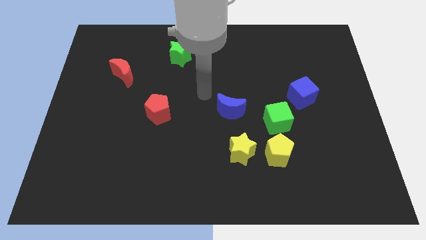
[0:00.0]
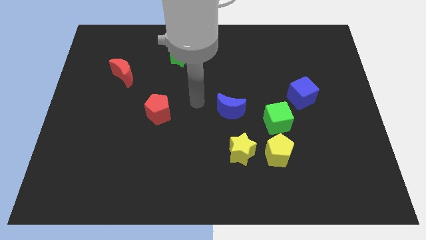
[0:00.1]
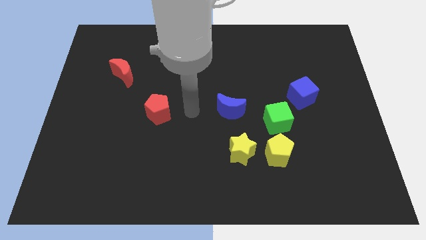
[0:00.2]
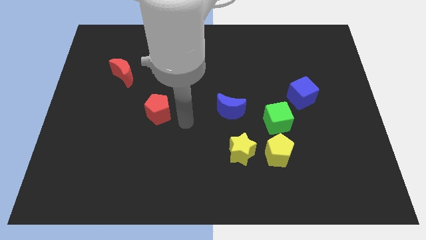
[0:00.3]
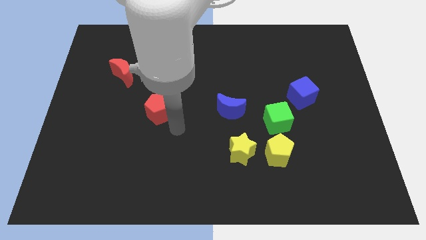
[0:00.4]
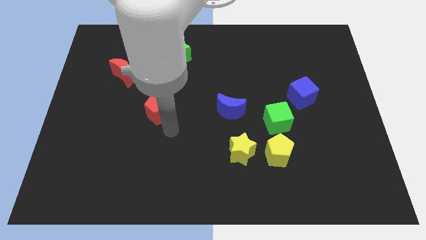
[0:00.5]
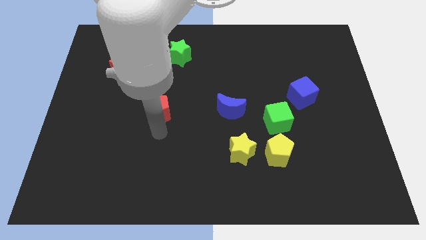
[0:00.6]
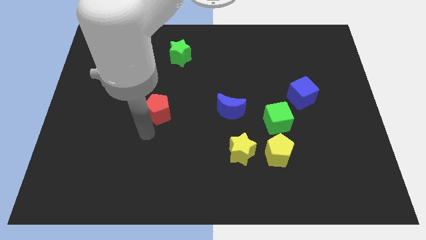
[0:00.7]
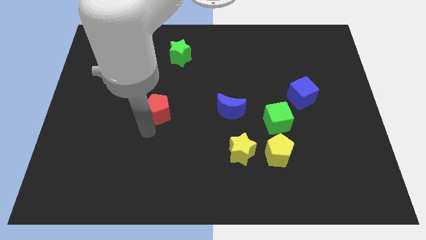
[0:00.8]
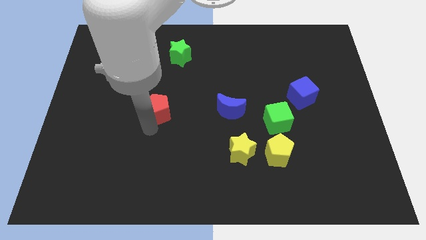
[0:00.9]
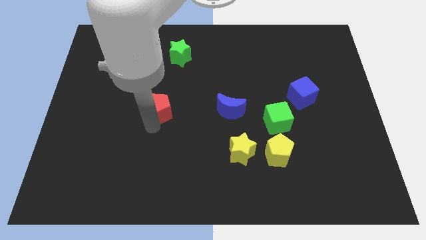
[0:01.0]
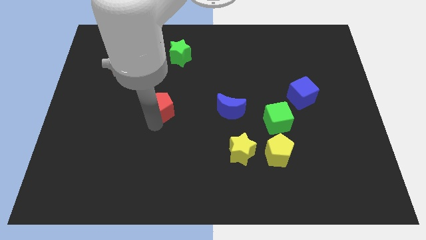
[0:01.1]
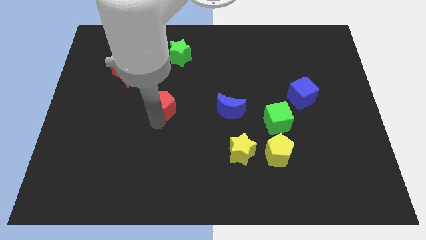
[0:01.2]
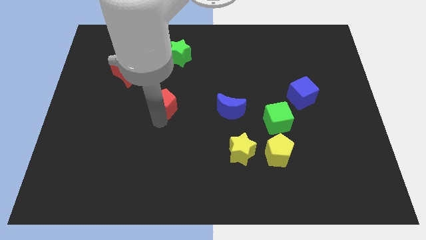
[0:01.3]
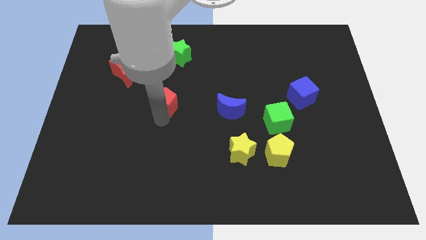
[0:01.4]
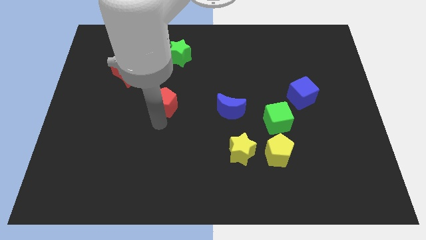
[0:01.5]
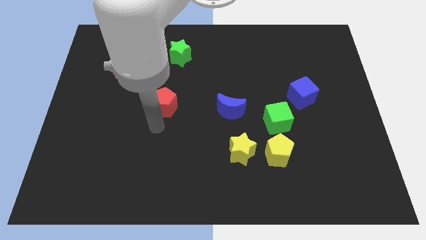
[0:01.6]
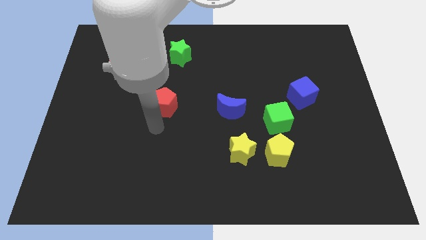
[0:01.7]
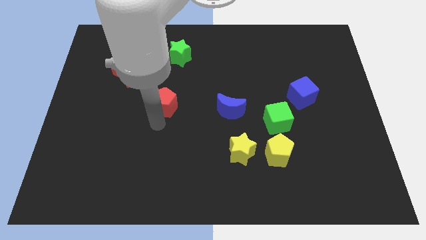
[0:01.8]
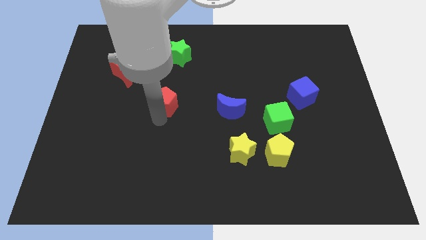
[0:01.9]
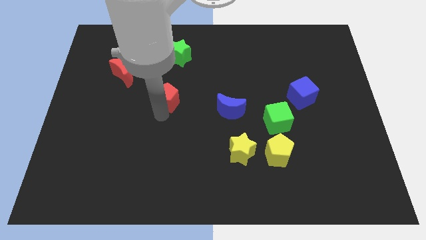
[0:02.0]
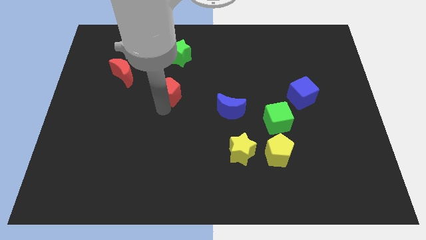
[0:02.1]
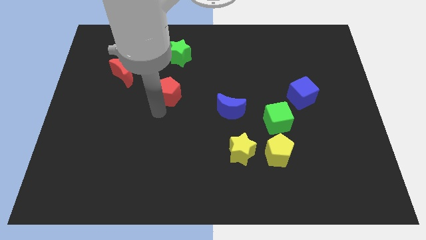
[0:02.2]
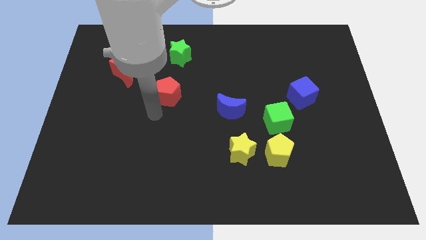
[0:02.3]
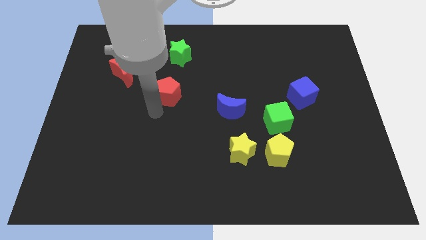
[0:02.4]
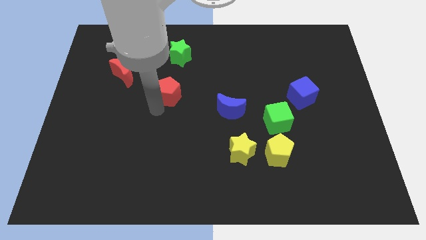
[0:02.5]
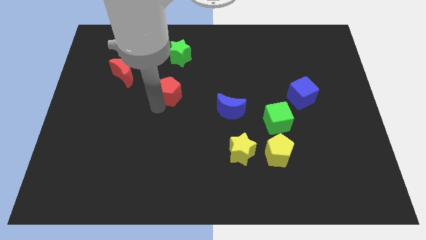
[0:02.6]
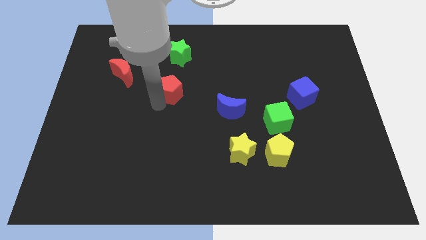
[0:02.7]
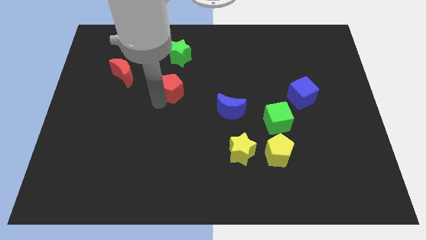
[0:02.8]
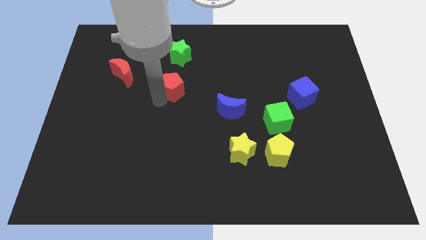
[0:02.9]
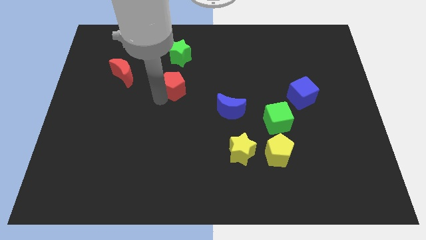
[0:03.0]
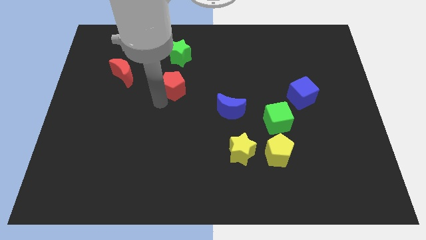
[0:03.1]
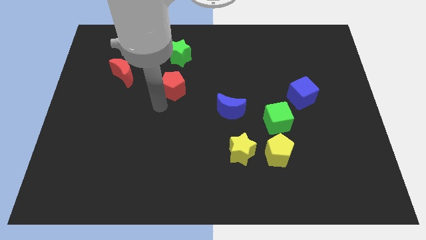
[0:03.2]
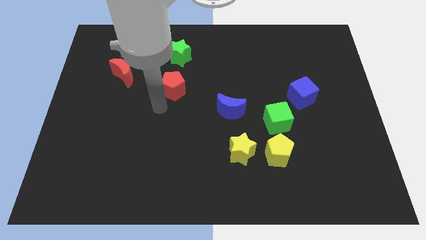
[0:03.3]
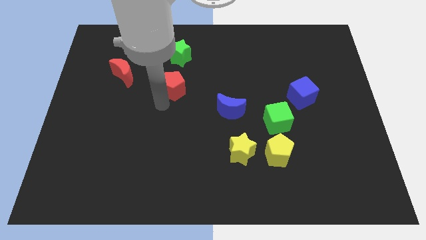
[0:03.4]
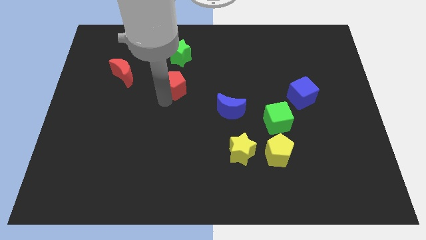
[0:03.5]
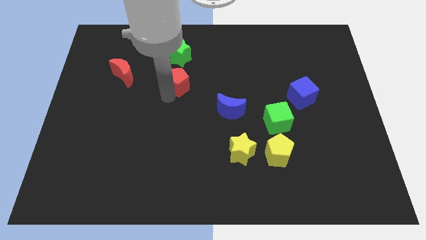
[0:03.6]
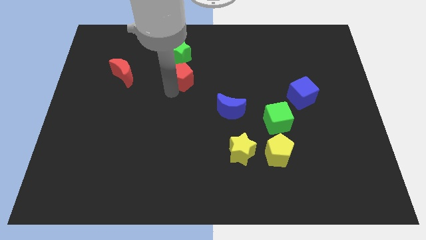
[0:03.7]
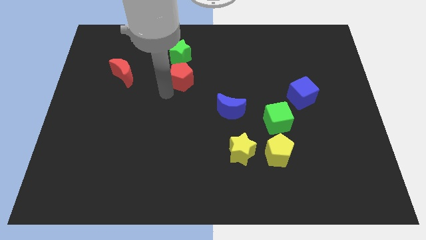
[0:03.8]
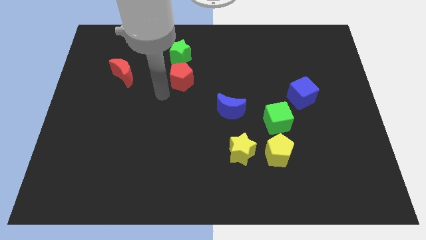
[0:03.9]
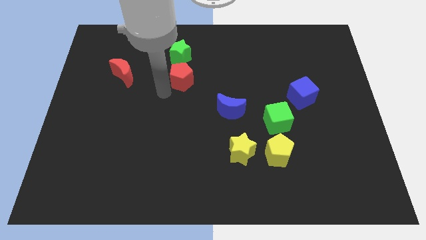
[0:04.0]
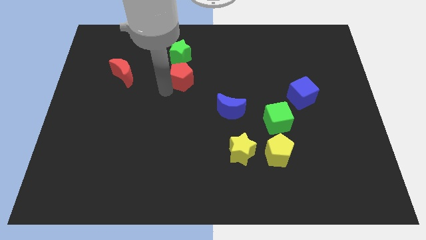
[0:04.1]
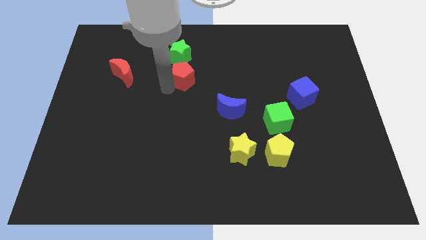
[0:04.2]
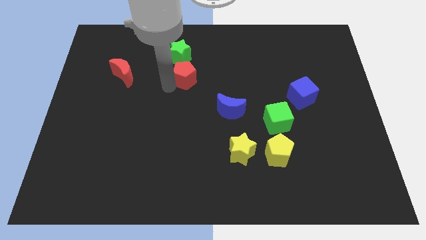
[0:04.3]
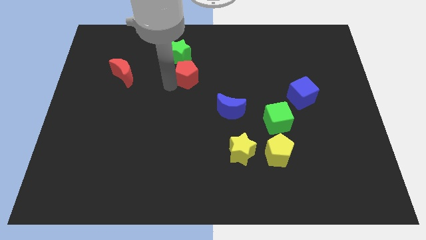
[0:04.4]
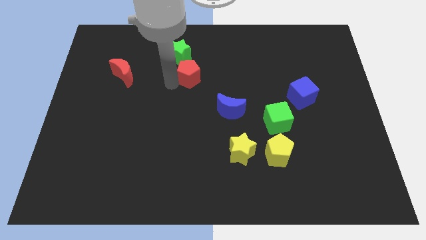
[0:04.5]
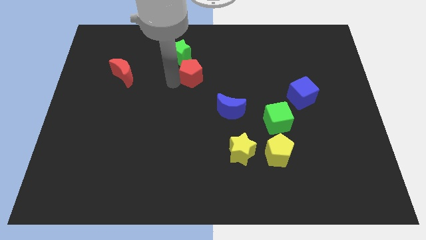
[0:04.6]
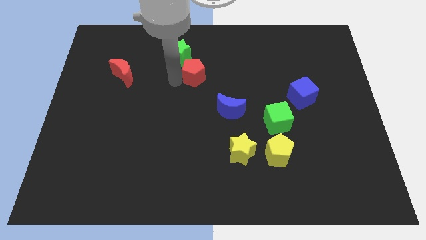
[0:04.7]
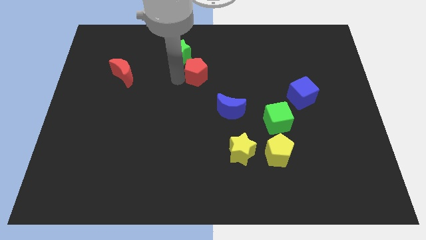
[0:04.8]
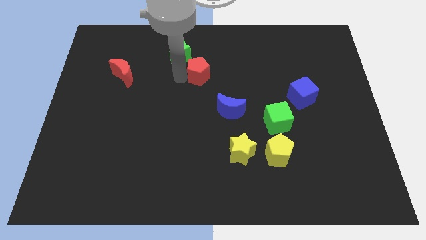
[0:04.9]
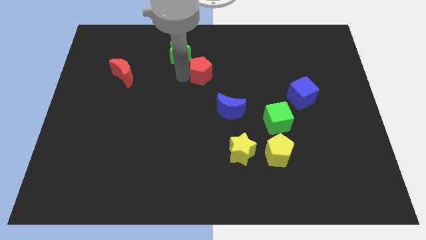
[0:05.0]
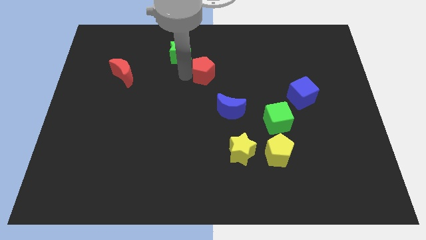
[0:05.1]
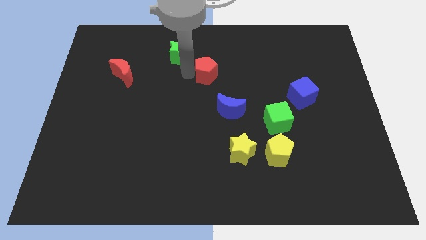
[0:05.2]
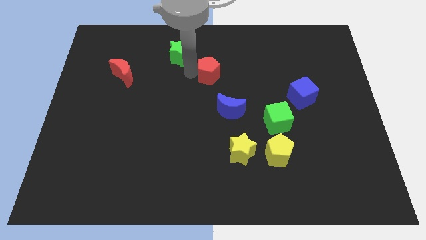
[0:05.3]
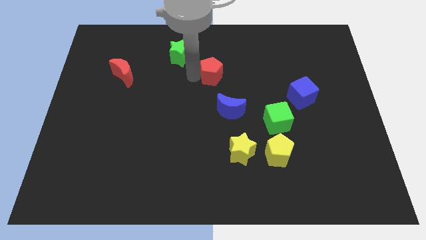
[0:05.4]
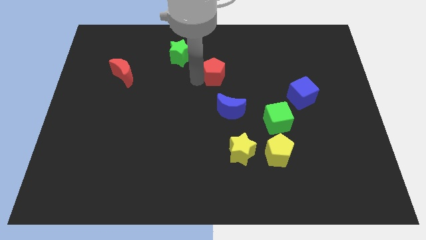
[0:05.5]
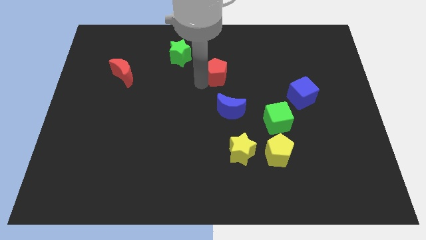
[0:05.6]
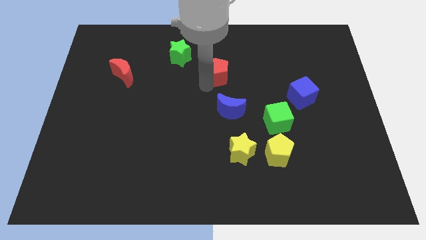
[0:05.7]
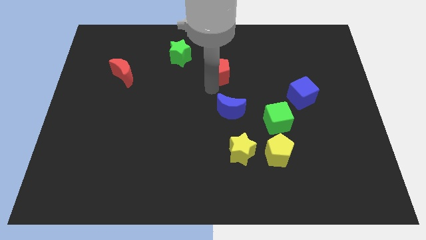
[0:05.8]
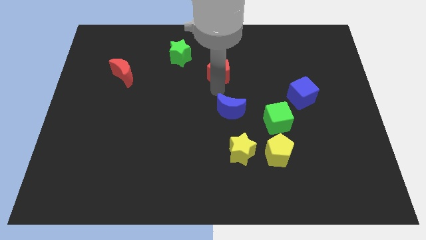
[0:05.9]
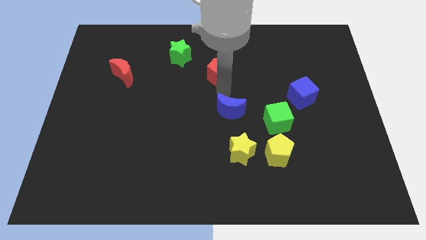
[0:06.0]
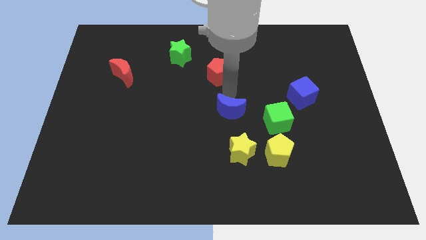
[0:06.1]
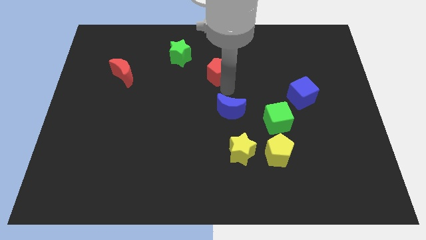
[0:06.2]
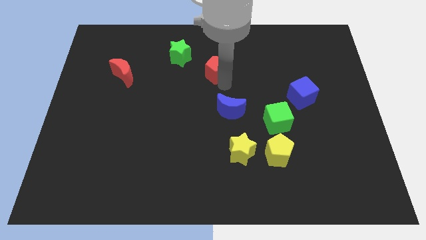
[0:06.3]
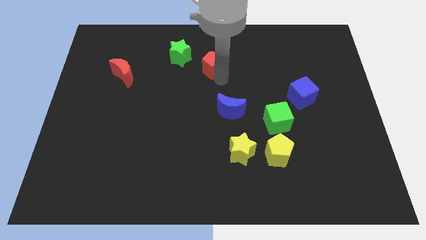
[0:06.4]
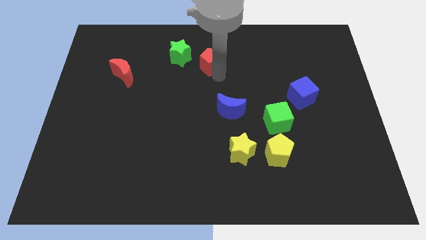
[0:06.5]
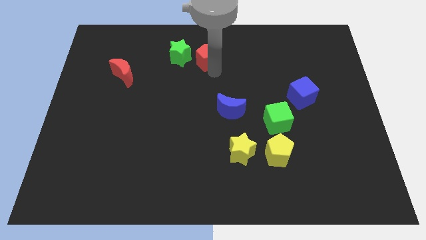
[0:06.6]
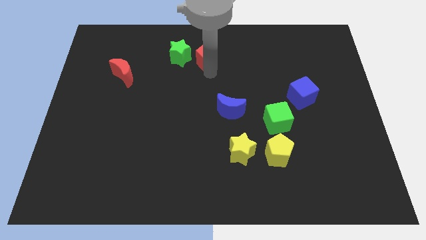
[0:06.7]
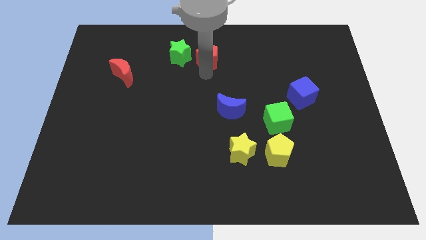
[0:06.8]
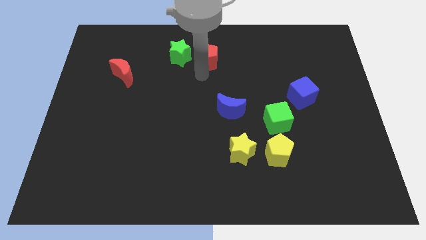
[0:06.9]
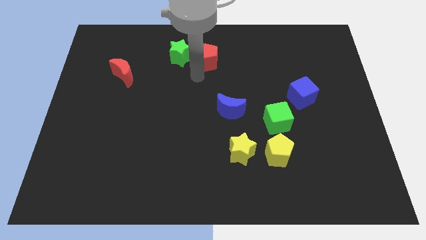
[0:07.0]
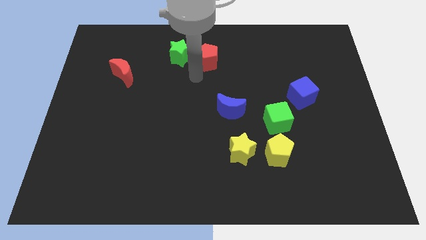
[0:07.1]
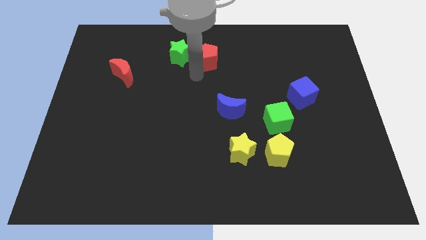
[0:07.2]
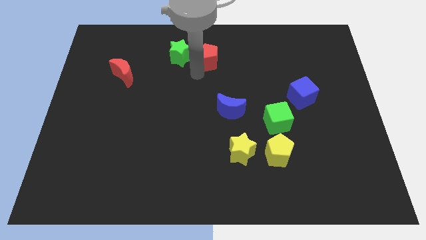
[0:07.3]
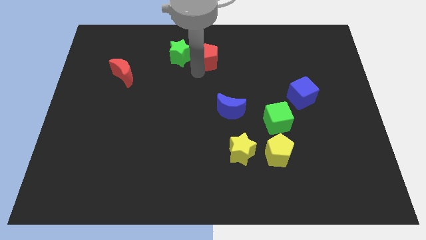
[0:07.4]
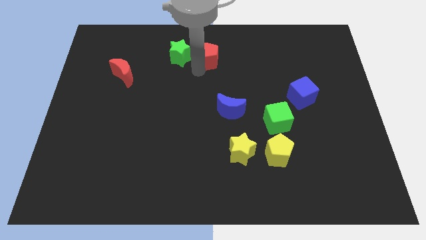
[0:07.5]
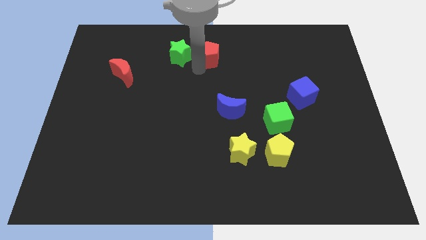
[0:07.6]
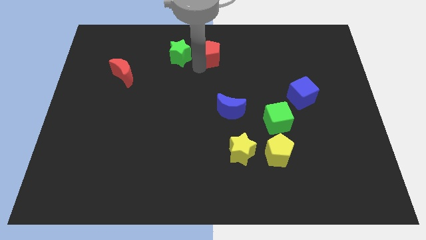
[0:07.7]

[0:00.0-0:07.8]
put the red pentagon to the top
